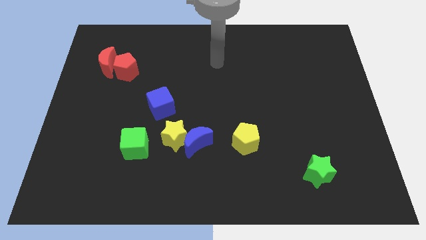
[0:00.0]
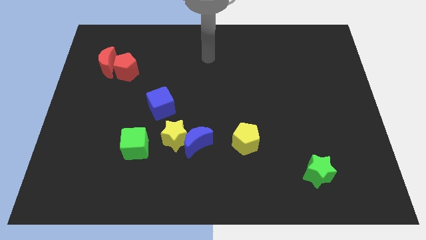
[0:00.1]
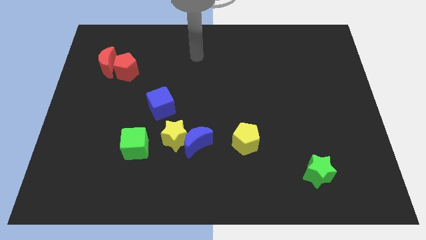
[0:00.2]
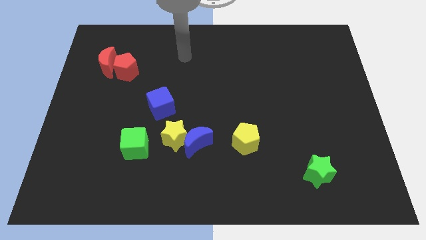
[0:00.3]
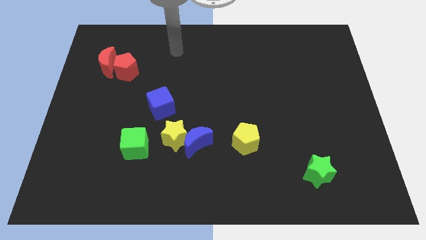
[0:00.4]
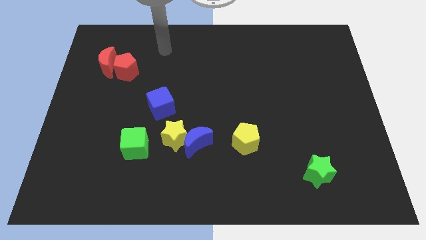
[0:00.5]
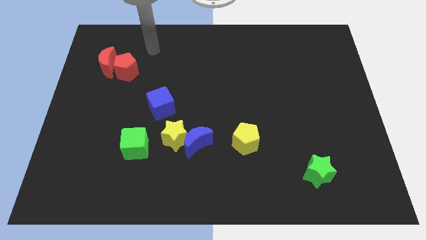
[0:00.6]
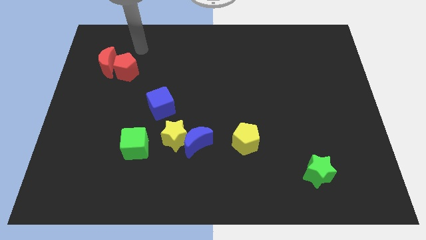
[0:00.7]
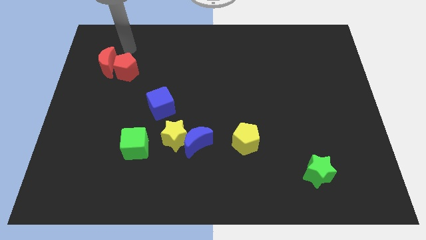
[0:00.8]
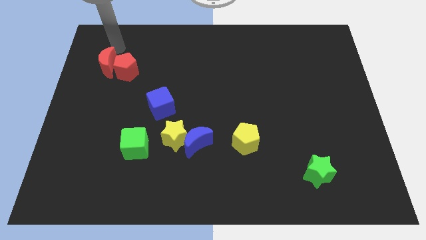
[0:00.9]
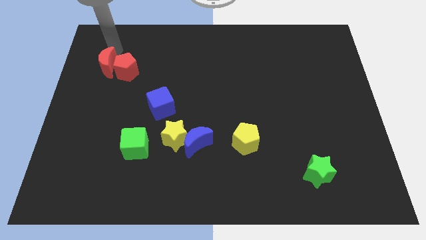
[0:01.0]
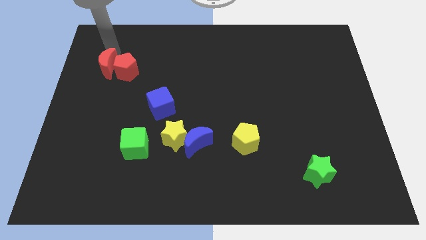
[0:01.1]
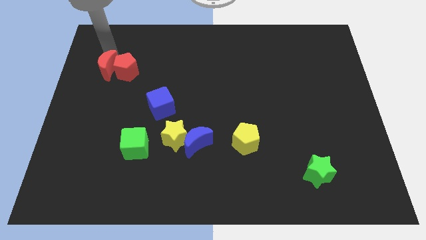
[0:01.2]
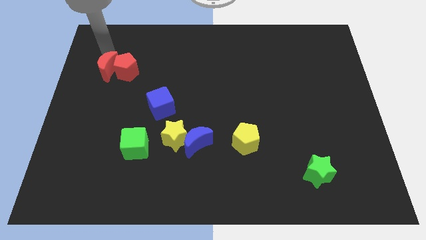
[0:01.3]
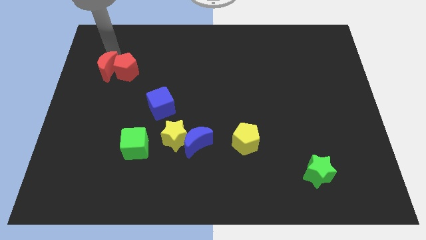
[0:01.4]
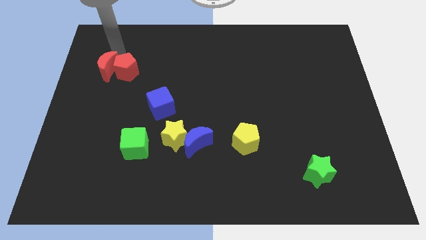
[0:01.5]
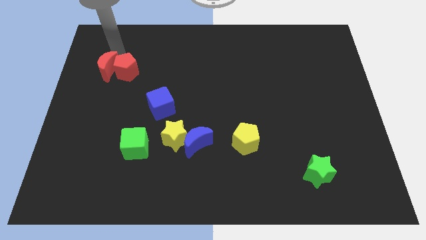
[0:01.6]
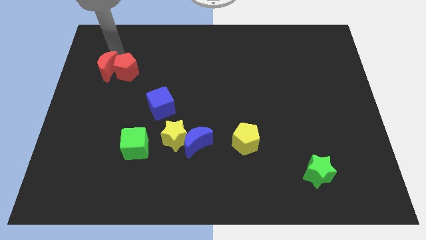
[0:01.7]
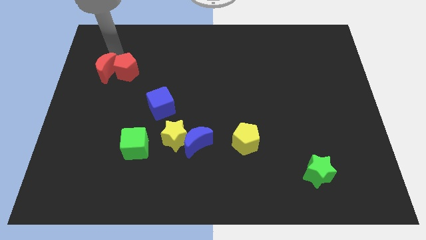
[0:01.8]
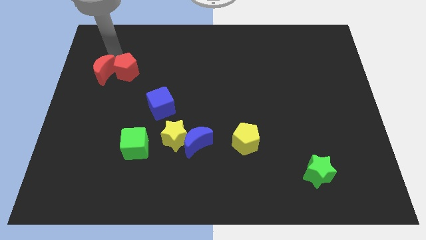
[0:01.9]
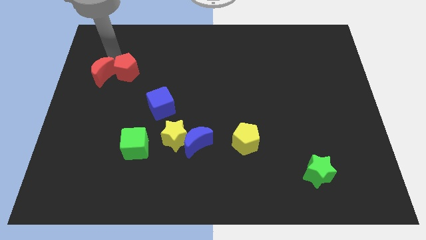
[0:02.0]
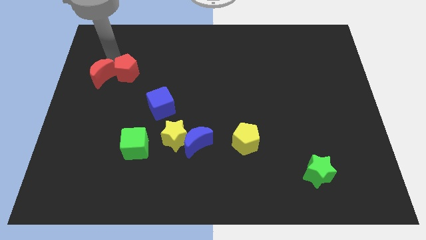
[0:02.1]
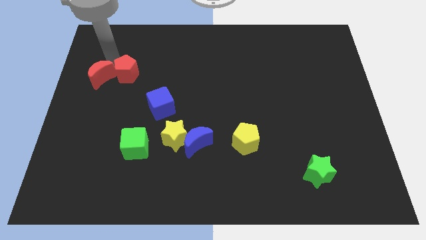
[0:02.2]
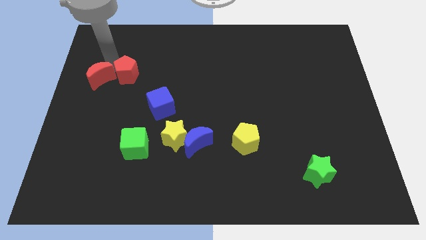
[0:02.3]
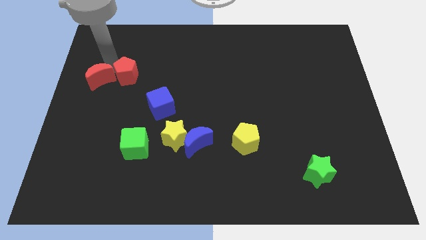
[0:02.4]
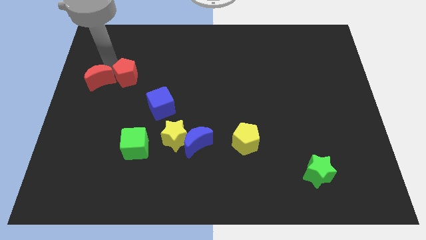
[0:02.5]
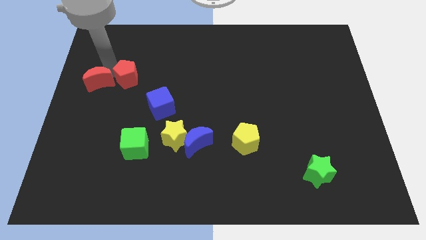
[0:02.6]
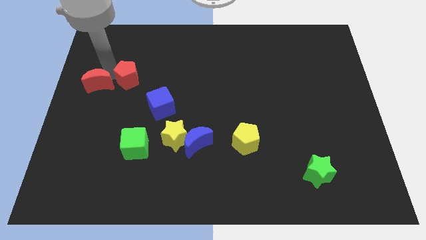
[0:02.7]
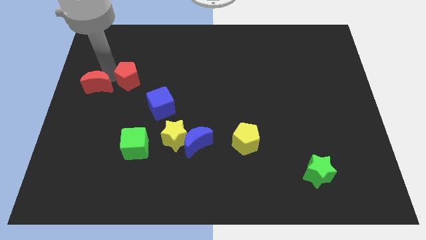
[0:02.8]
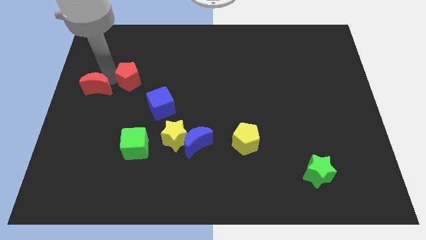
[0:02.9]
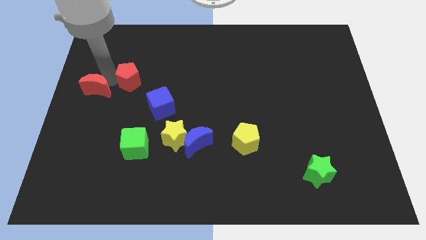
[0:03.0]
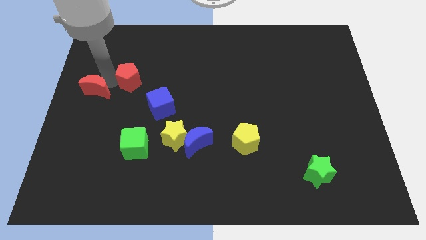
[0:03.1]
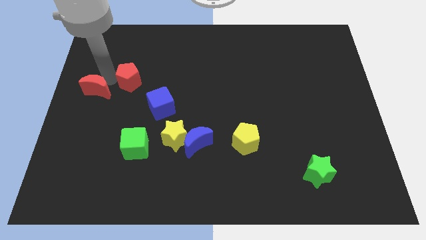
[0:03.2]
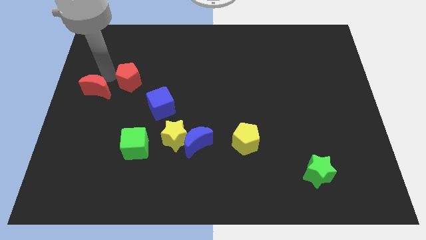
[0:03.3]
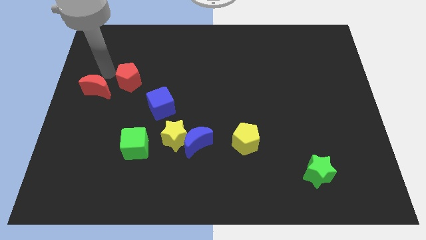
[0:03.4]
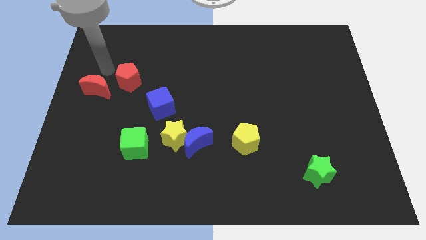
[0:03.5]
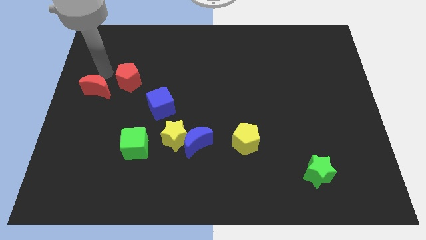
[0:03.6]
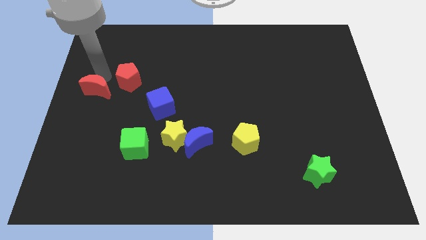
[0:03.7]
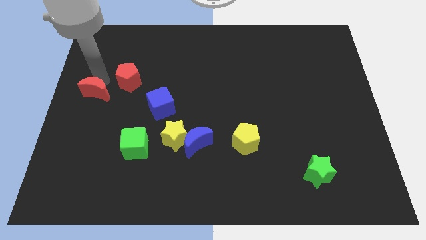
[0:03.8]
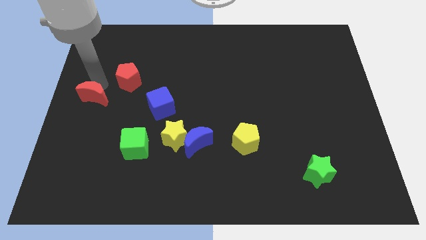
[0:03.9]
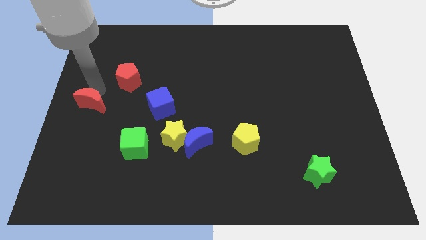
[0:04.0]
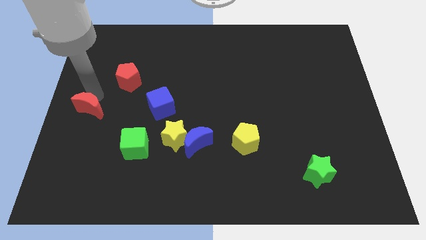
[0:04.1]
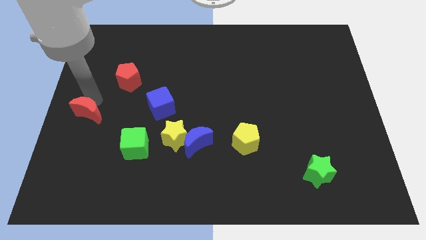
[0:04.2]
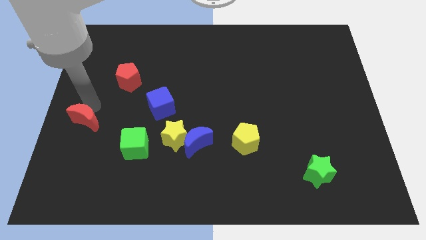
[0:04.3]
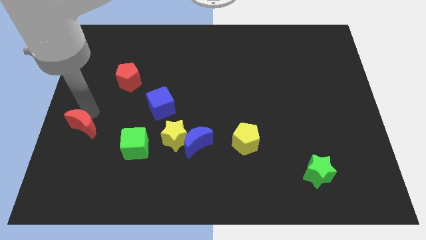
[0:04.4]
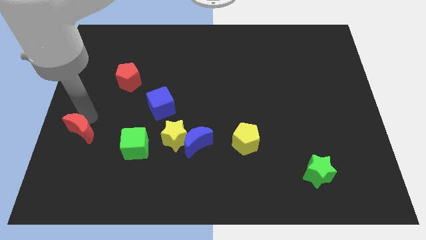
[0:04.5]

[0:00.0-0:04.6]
slide the red moon downwards

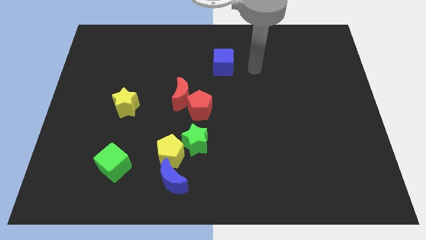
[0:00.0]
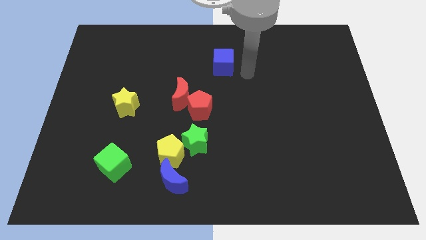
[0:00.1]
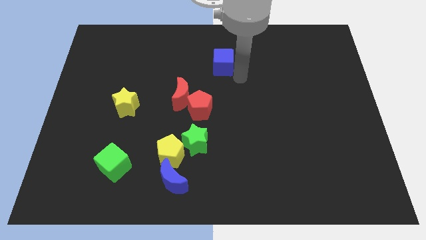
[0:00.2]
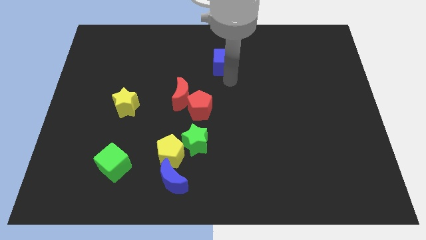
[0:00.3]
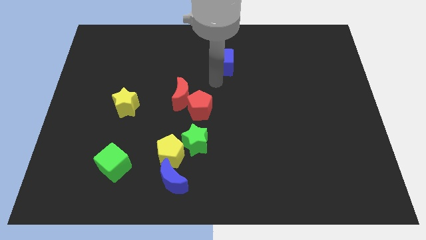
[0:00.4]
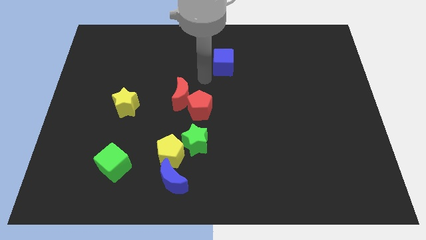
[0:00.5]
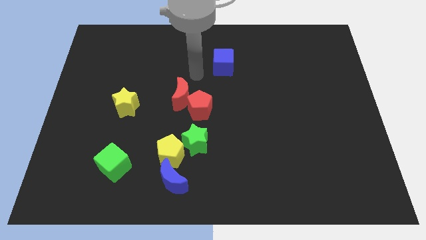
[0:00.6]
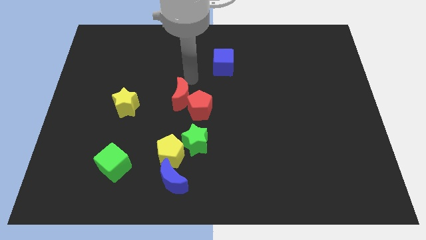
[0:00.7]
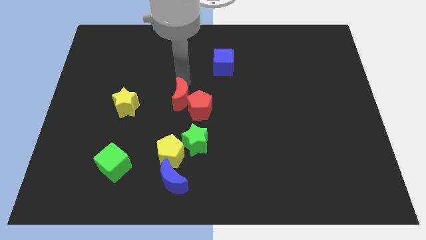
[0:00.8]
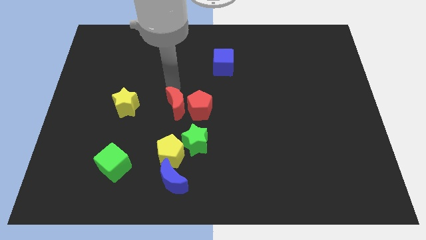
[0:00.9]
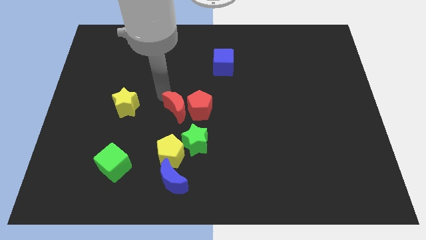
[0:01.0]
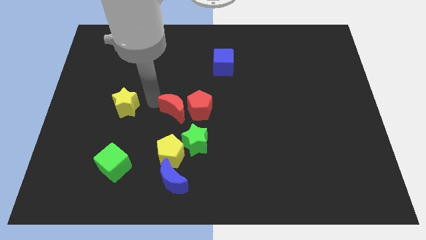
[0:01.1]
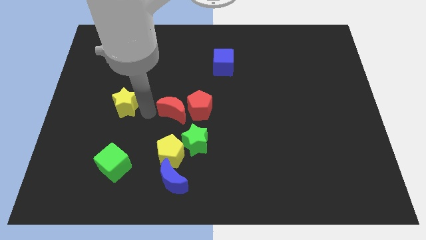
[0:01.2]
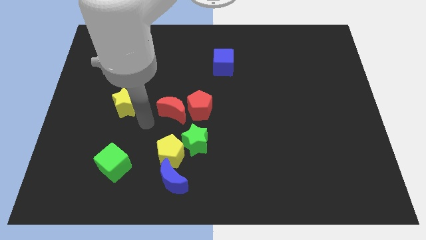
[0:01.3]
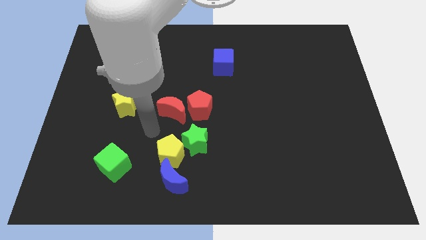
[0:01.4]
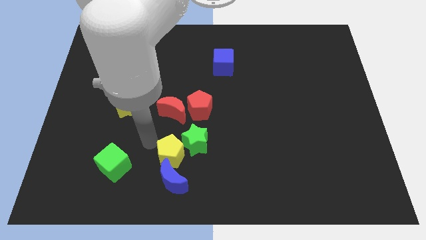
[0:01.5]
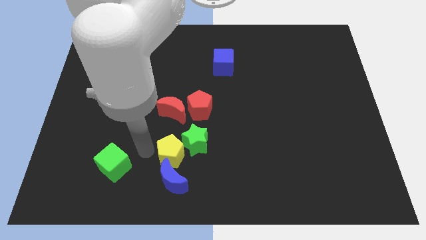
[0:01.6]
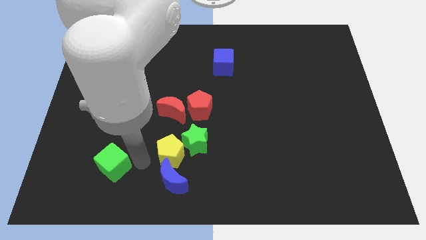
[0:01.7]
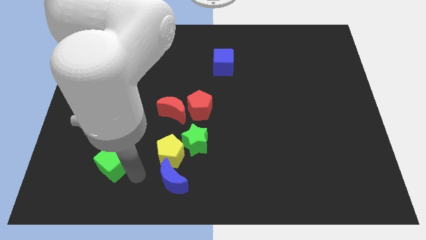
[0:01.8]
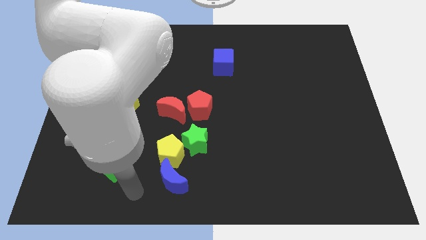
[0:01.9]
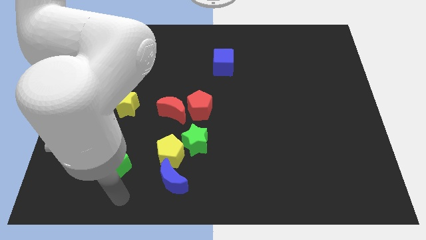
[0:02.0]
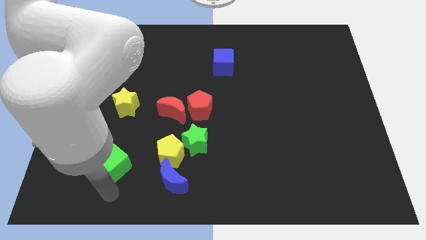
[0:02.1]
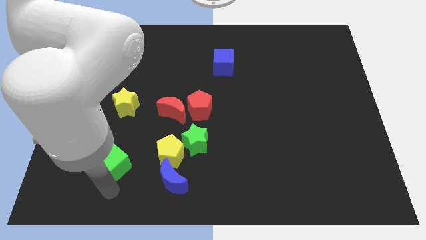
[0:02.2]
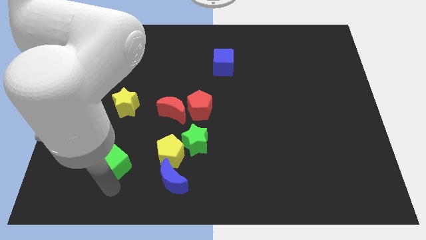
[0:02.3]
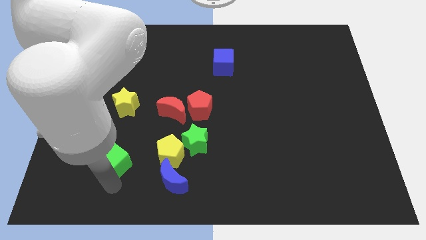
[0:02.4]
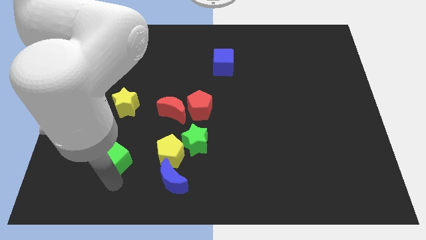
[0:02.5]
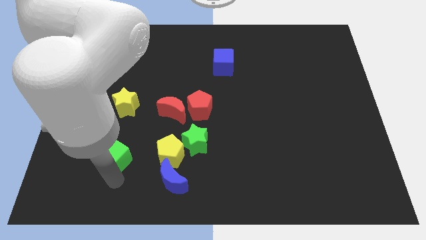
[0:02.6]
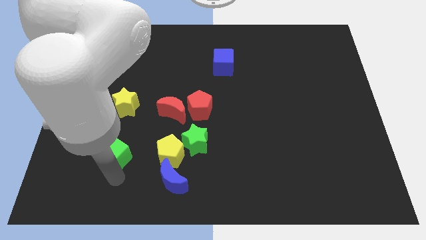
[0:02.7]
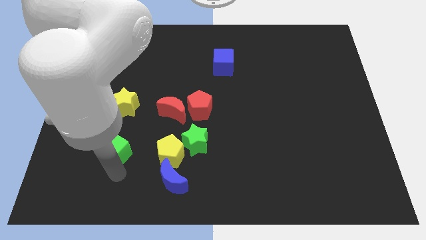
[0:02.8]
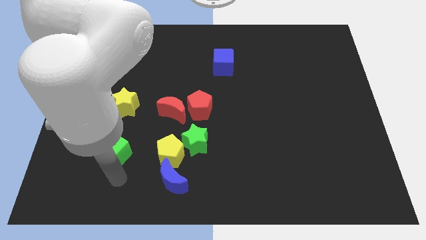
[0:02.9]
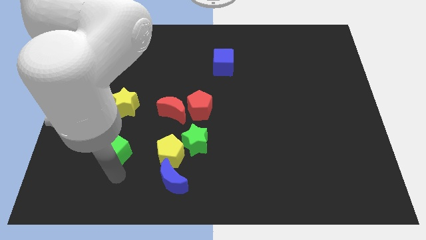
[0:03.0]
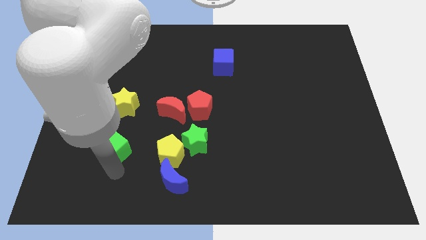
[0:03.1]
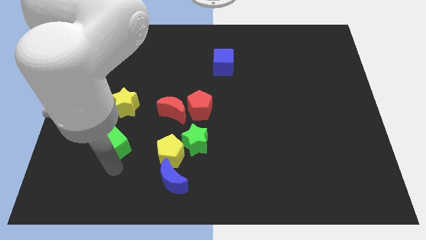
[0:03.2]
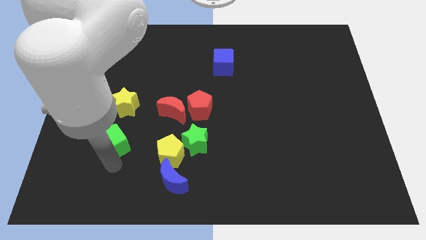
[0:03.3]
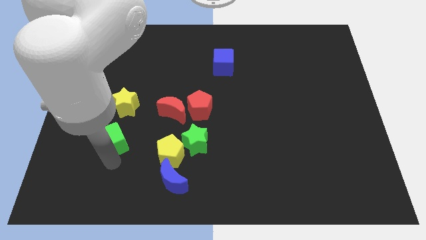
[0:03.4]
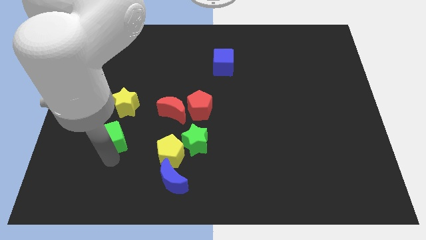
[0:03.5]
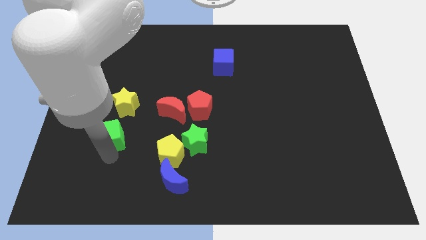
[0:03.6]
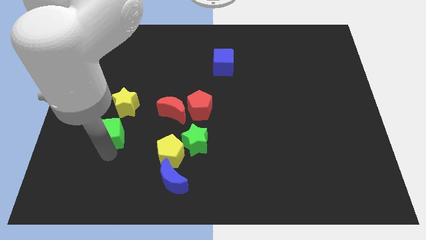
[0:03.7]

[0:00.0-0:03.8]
move the green cube up slightly

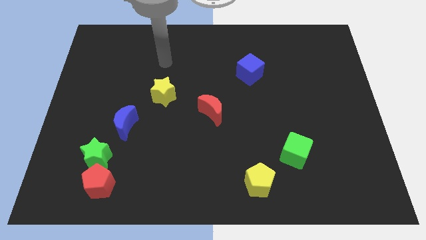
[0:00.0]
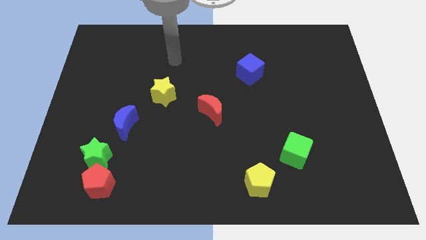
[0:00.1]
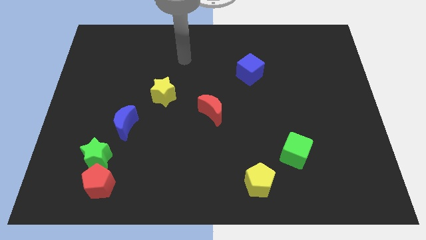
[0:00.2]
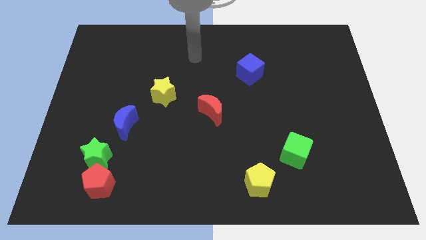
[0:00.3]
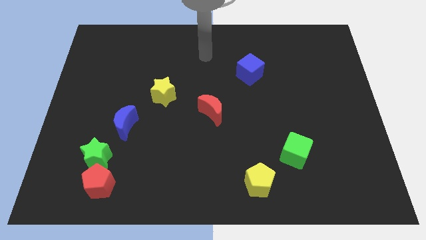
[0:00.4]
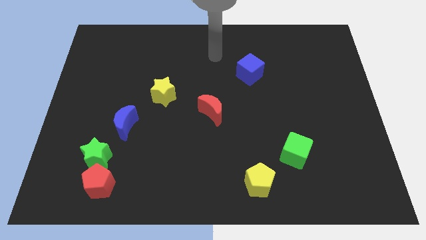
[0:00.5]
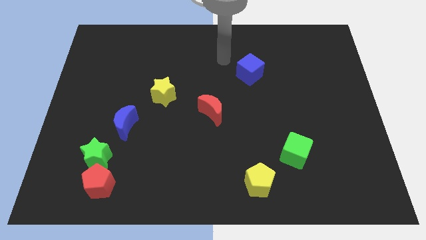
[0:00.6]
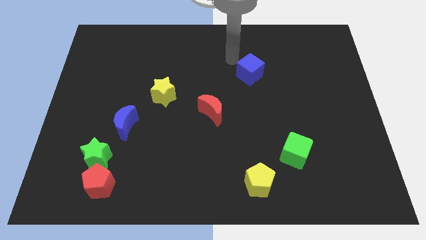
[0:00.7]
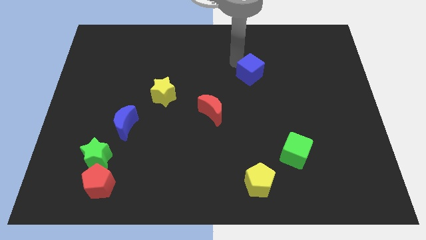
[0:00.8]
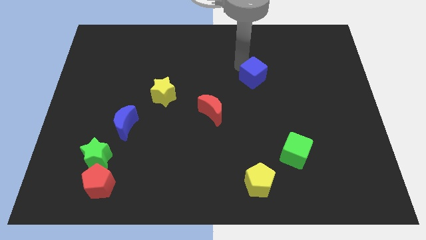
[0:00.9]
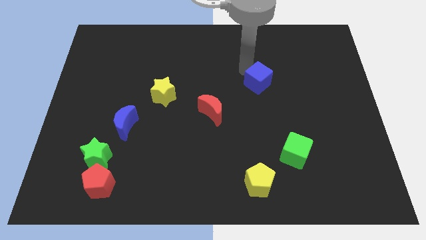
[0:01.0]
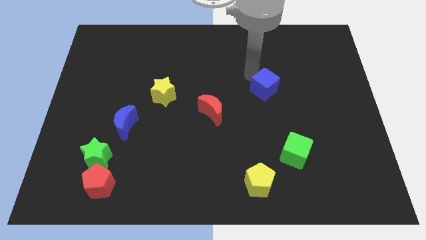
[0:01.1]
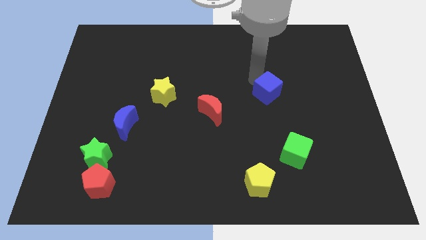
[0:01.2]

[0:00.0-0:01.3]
push the blue cube downwards and then right slightly
